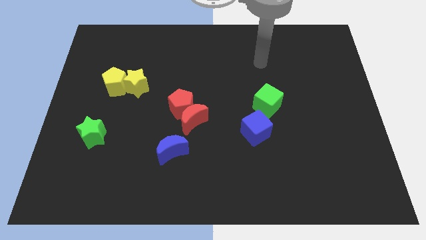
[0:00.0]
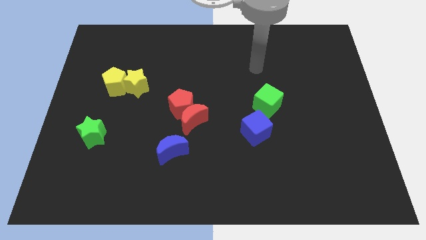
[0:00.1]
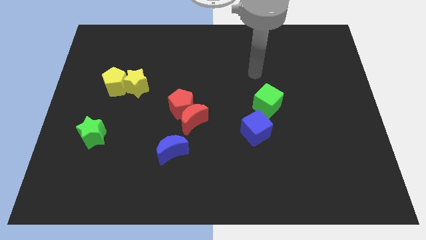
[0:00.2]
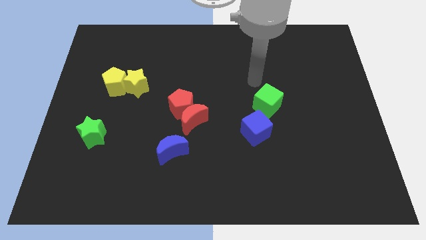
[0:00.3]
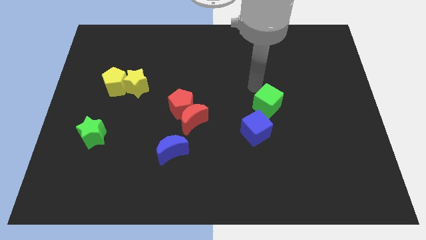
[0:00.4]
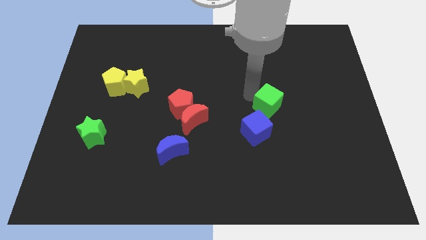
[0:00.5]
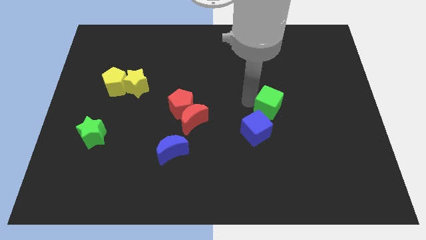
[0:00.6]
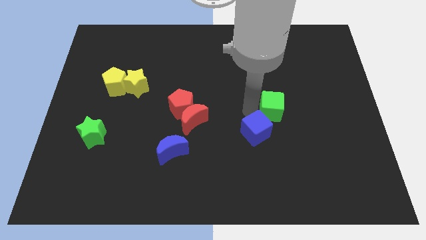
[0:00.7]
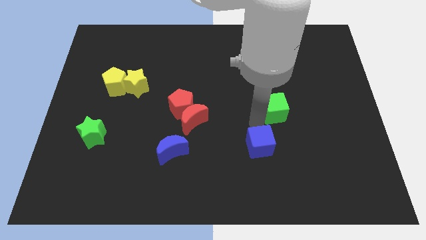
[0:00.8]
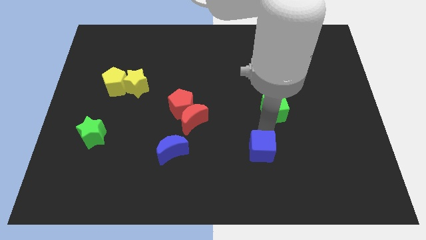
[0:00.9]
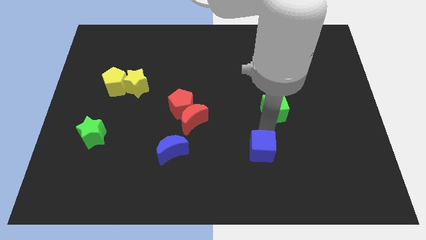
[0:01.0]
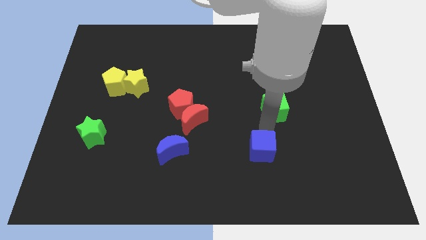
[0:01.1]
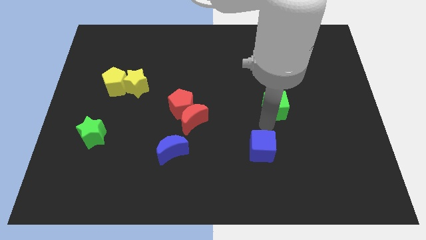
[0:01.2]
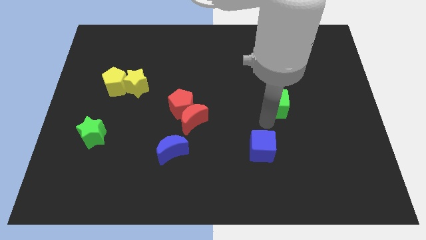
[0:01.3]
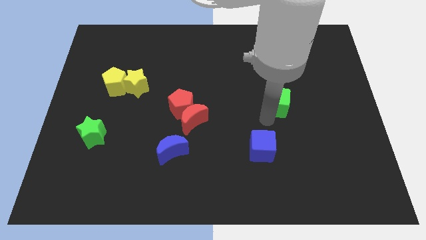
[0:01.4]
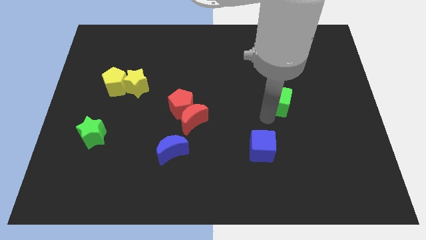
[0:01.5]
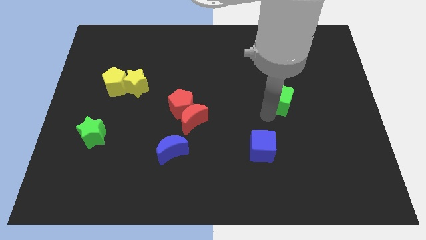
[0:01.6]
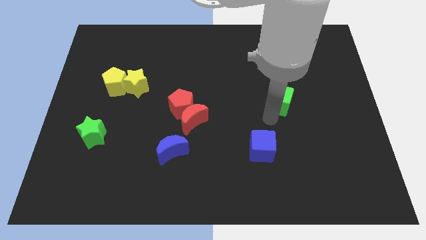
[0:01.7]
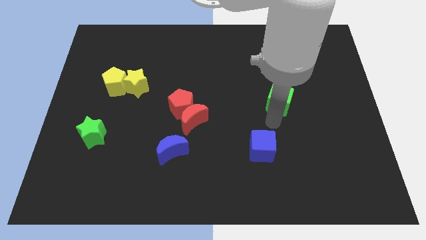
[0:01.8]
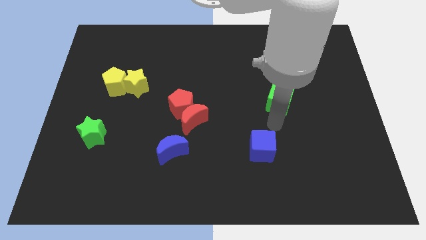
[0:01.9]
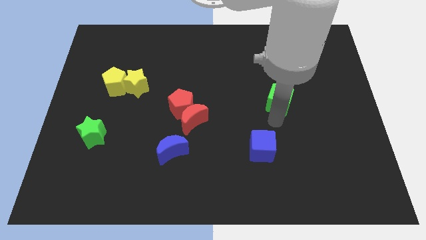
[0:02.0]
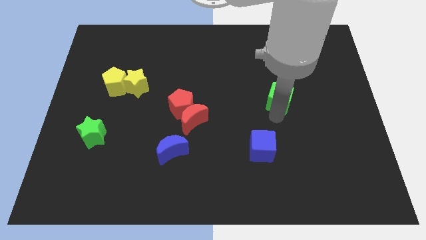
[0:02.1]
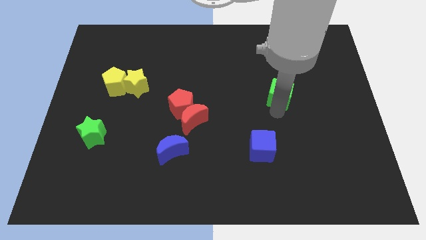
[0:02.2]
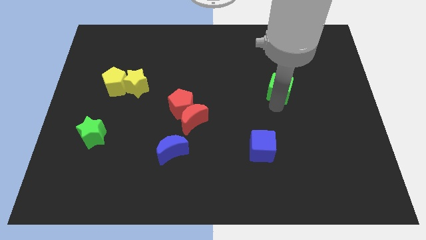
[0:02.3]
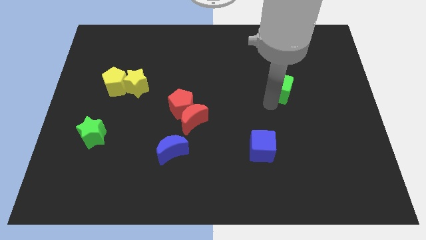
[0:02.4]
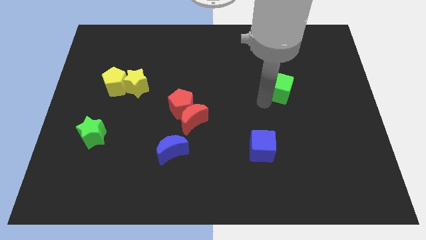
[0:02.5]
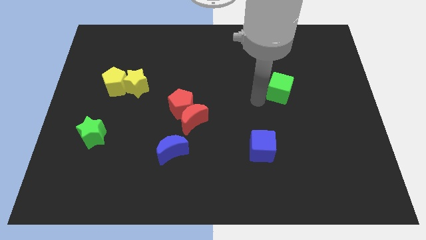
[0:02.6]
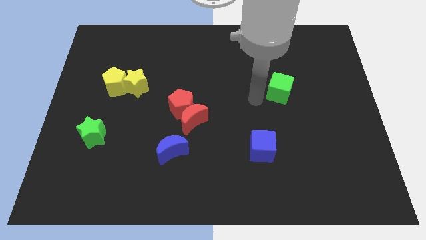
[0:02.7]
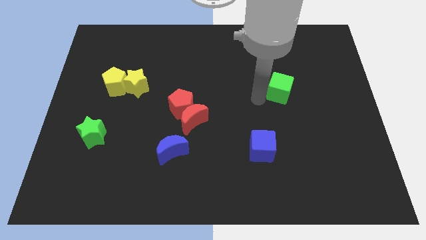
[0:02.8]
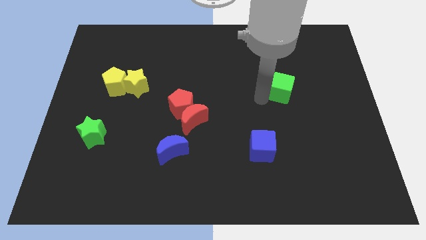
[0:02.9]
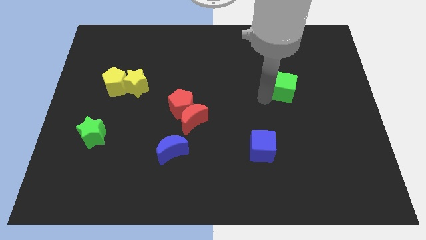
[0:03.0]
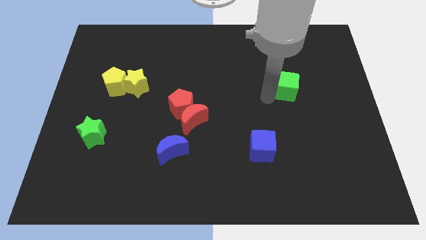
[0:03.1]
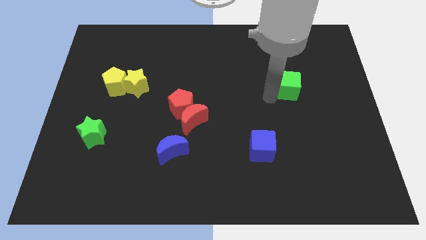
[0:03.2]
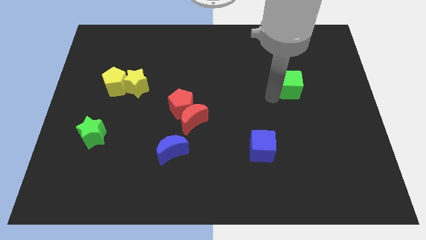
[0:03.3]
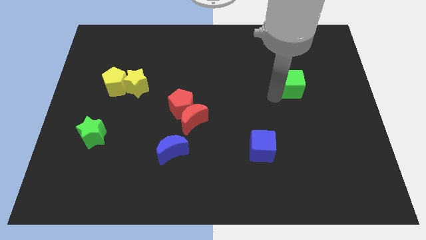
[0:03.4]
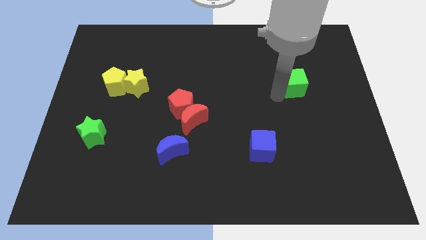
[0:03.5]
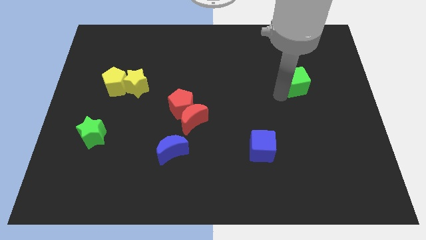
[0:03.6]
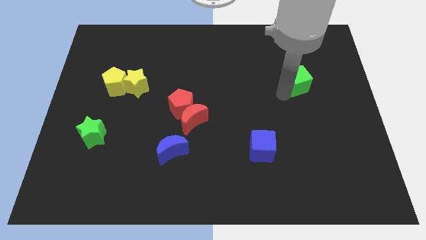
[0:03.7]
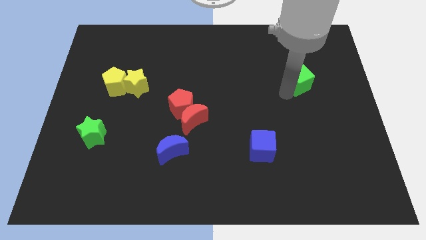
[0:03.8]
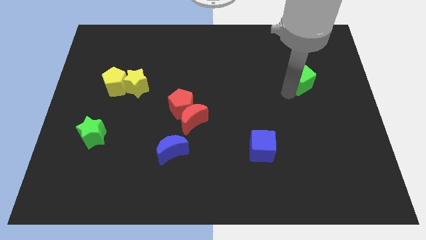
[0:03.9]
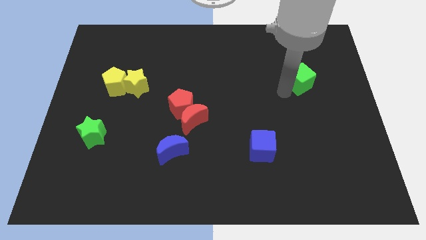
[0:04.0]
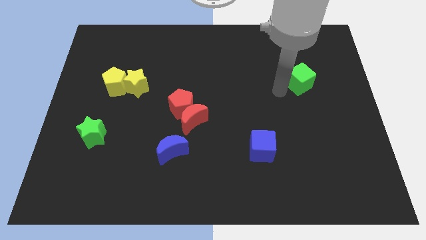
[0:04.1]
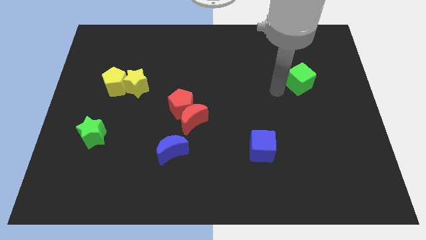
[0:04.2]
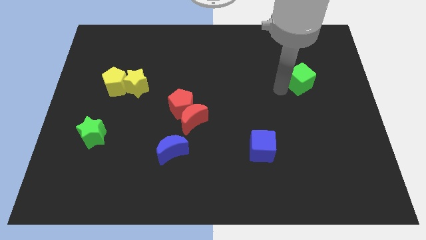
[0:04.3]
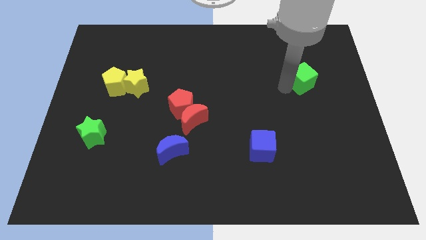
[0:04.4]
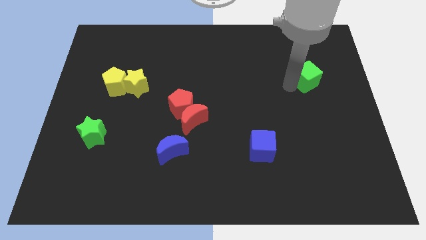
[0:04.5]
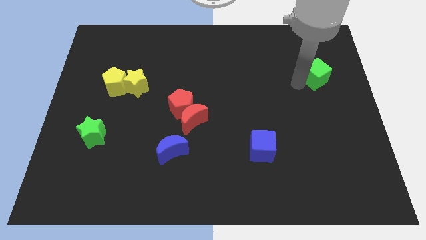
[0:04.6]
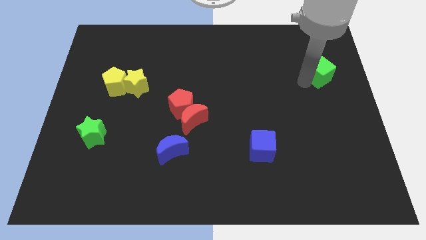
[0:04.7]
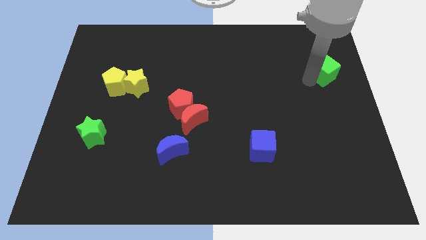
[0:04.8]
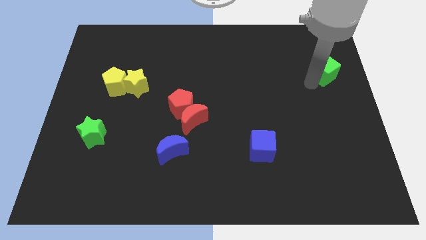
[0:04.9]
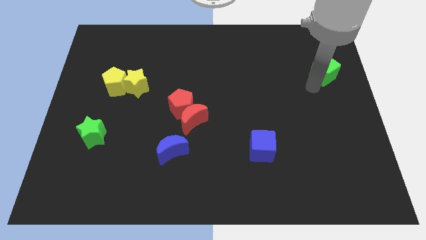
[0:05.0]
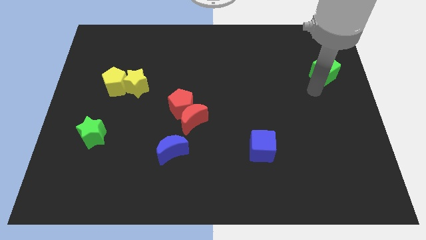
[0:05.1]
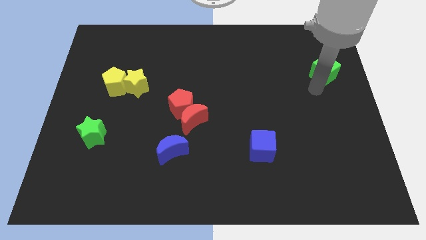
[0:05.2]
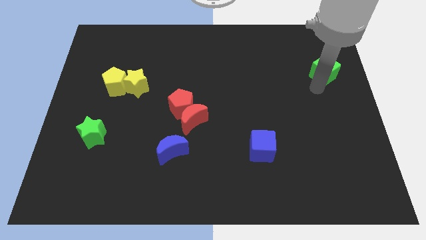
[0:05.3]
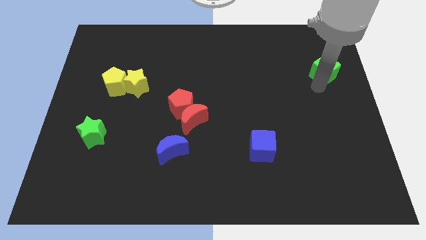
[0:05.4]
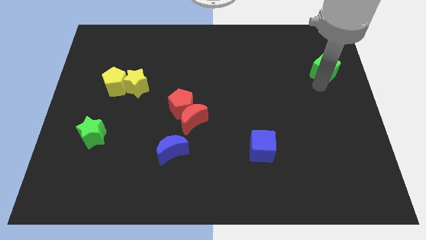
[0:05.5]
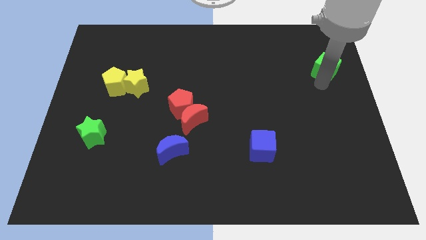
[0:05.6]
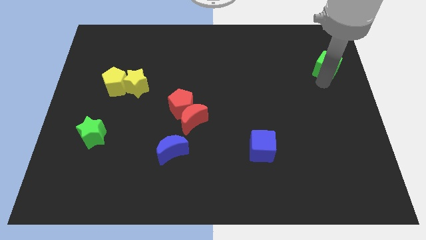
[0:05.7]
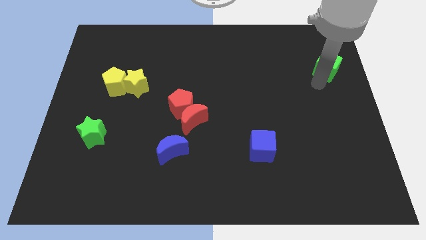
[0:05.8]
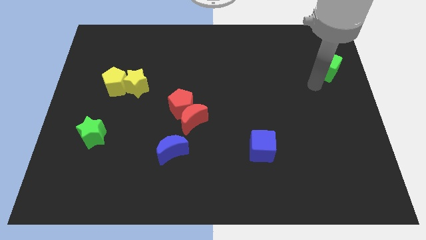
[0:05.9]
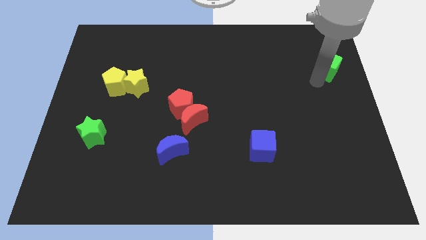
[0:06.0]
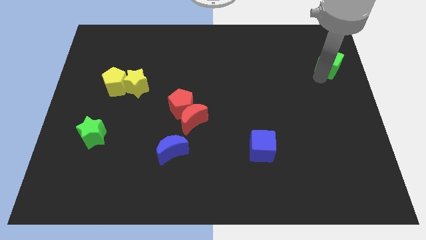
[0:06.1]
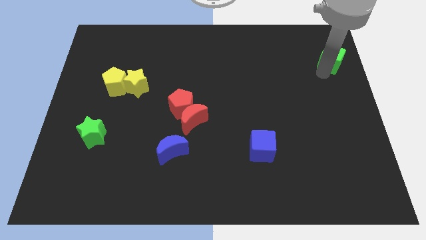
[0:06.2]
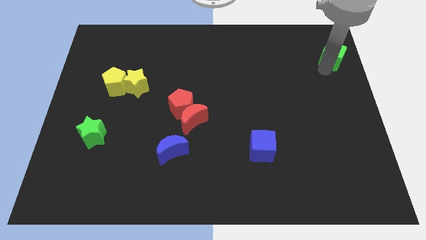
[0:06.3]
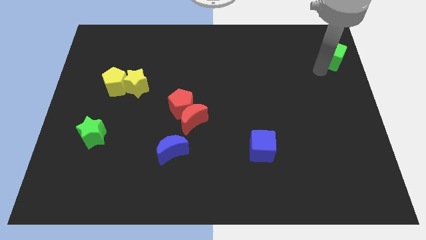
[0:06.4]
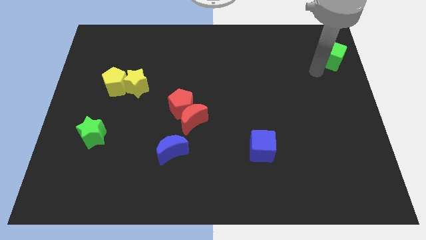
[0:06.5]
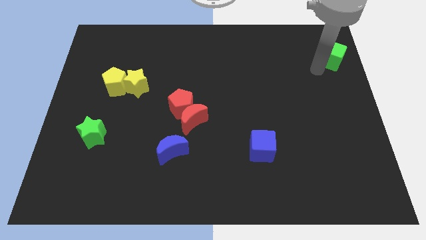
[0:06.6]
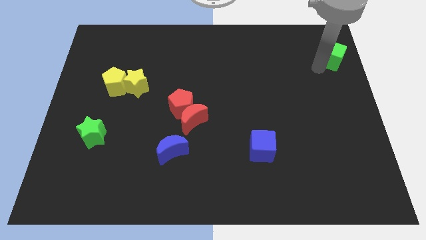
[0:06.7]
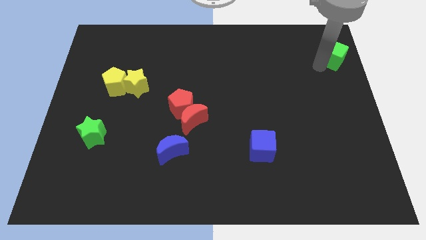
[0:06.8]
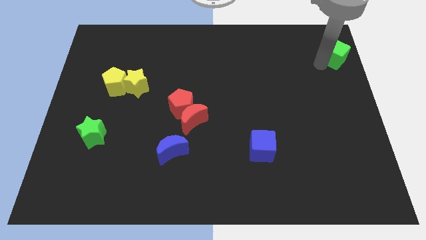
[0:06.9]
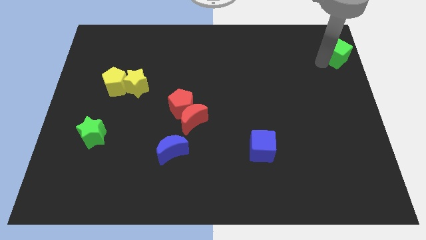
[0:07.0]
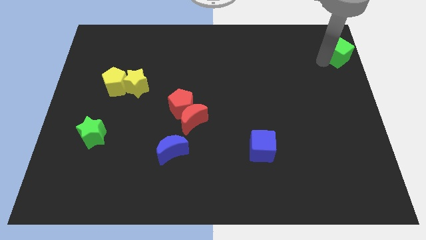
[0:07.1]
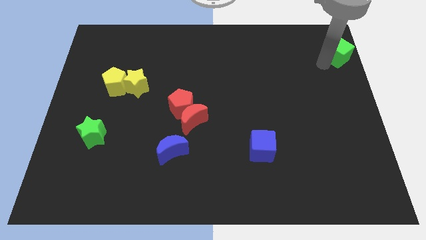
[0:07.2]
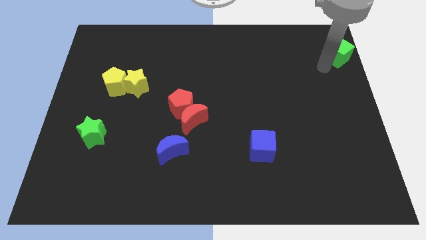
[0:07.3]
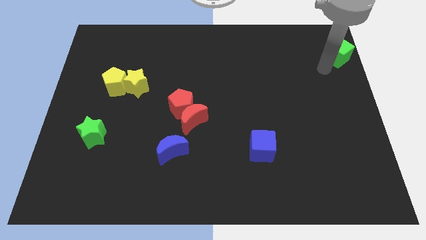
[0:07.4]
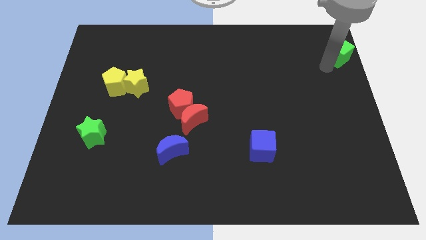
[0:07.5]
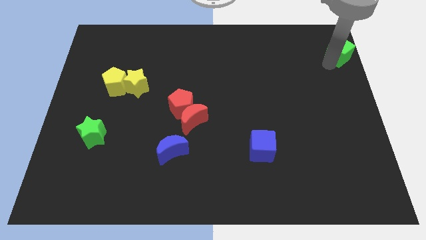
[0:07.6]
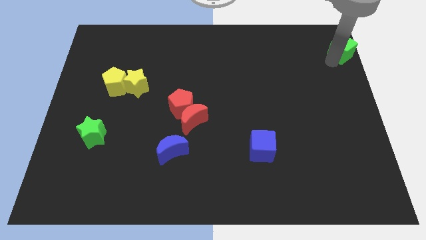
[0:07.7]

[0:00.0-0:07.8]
put the green cube to the upper right corner
